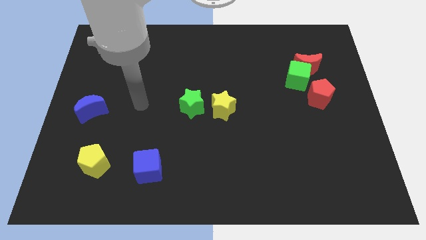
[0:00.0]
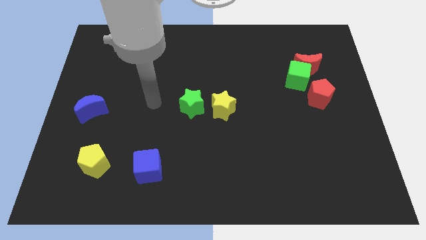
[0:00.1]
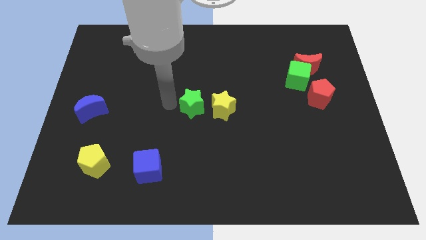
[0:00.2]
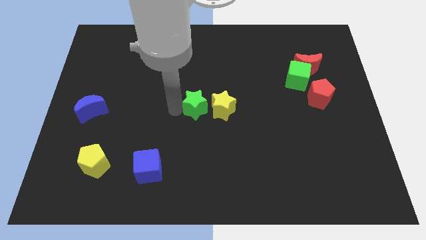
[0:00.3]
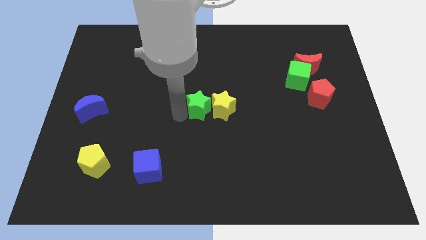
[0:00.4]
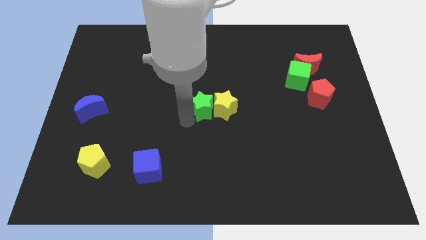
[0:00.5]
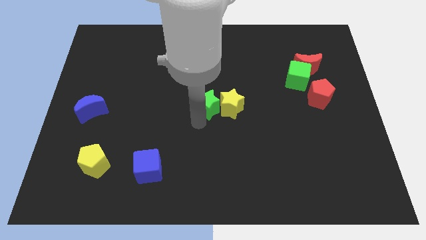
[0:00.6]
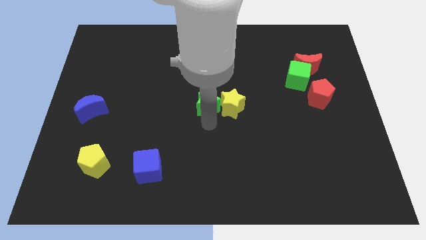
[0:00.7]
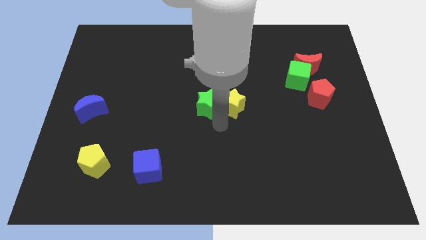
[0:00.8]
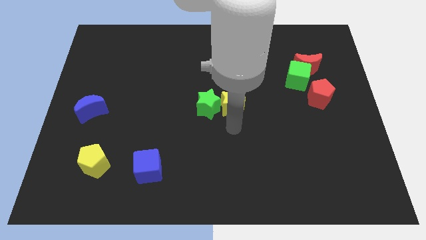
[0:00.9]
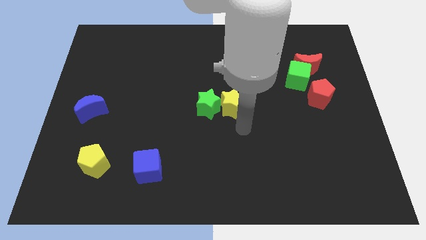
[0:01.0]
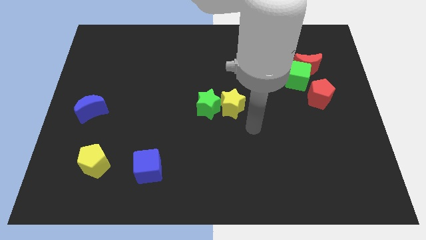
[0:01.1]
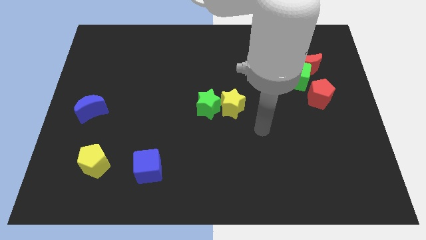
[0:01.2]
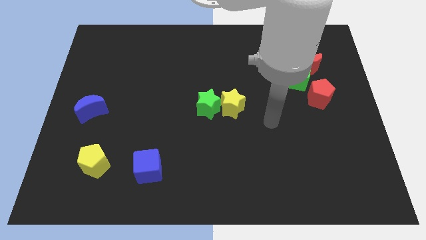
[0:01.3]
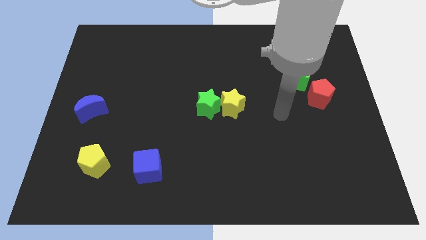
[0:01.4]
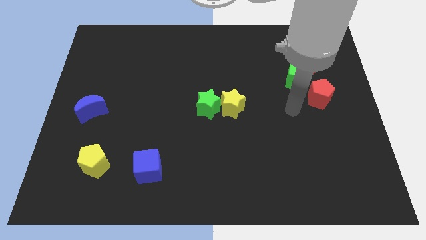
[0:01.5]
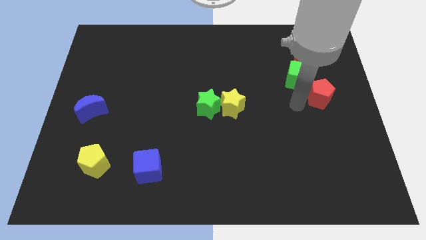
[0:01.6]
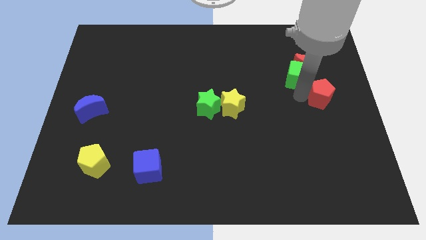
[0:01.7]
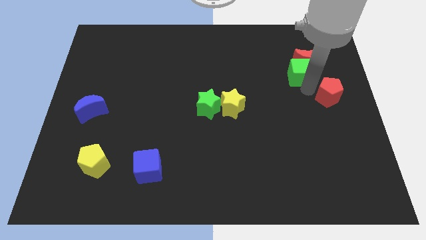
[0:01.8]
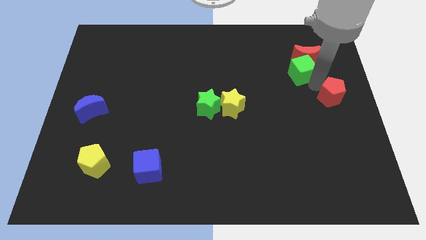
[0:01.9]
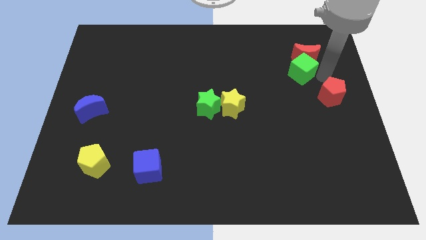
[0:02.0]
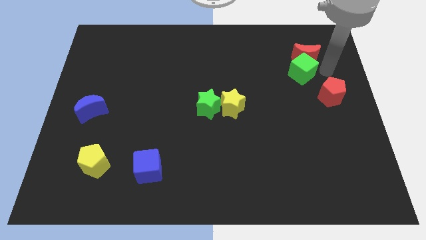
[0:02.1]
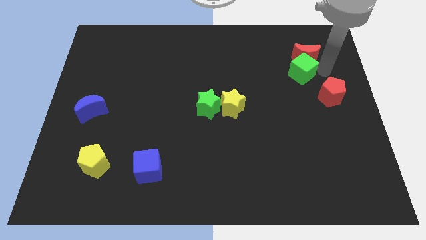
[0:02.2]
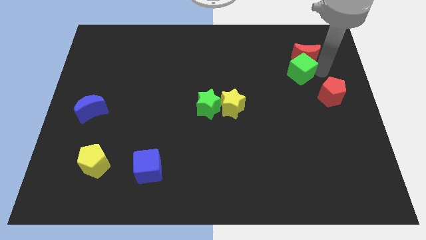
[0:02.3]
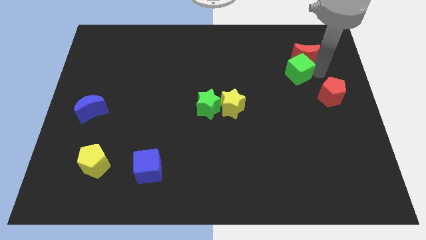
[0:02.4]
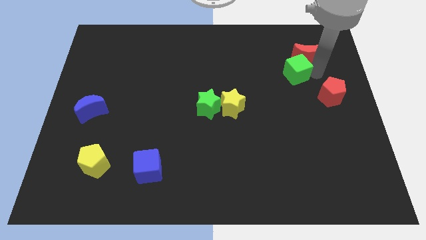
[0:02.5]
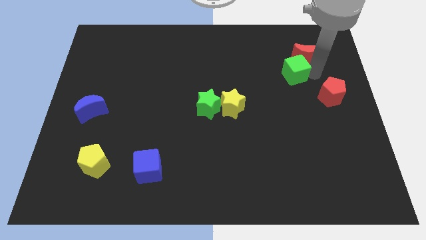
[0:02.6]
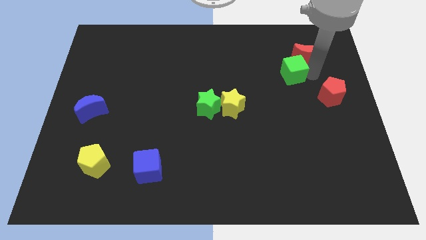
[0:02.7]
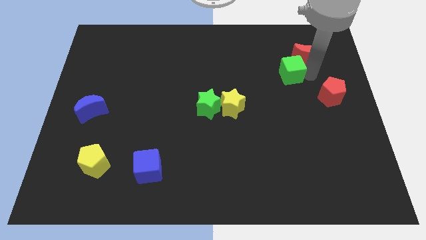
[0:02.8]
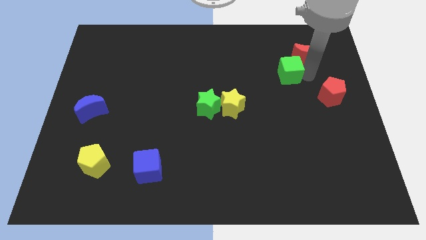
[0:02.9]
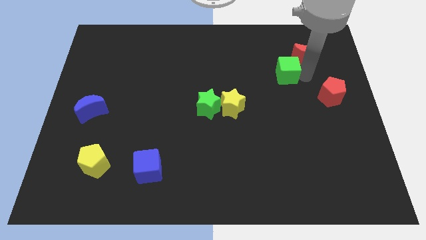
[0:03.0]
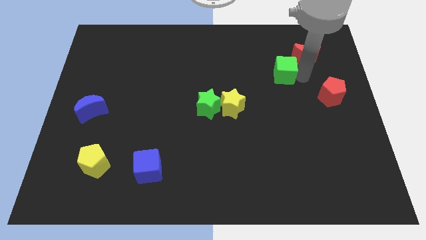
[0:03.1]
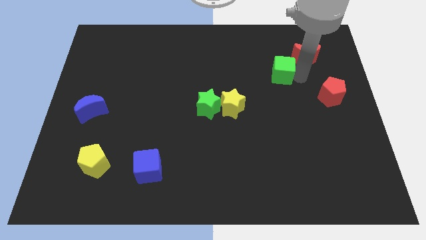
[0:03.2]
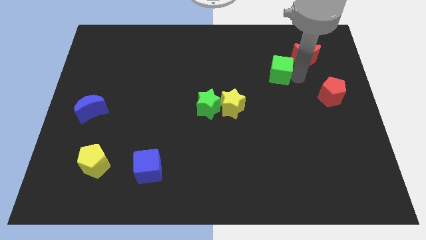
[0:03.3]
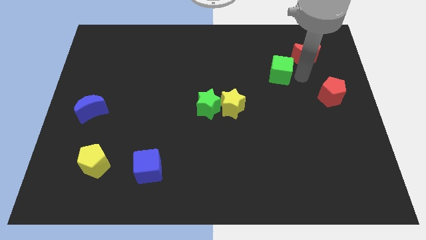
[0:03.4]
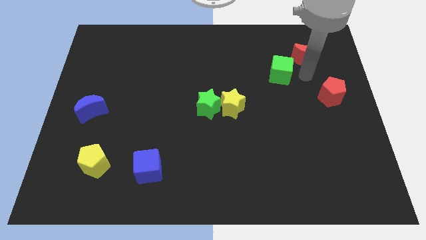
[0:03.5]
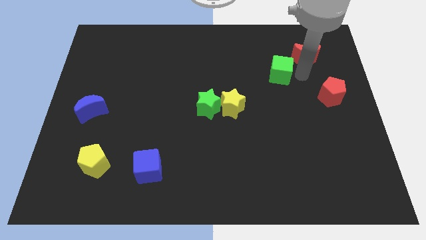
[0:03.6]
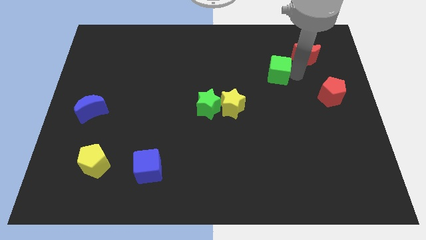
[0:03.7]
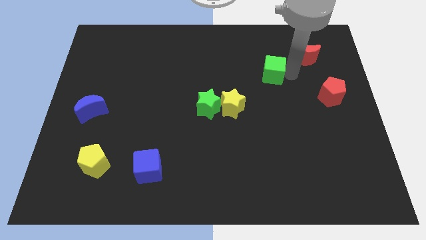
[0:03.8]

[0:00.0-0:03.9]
pull the green cube apart from the red moon and red pentagon

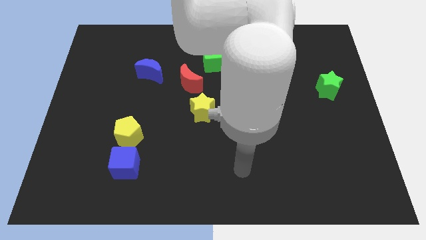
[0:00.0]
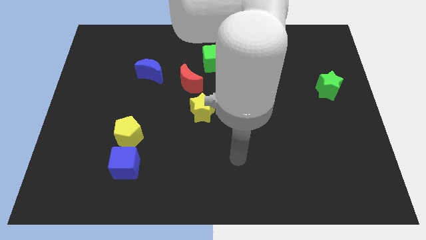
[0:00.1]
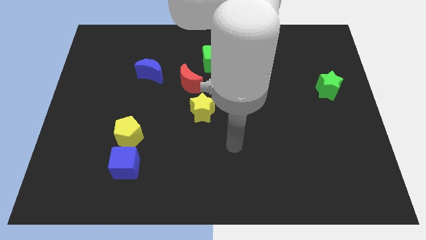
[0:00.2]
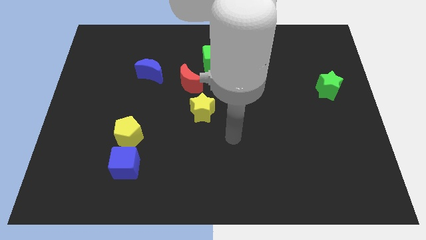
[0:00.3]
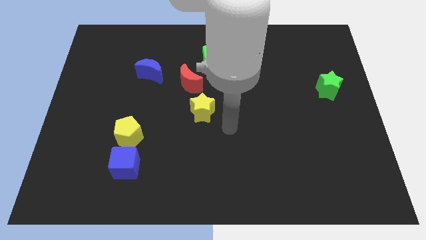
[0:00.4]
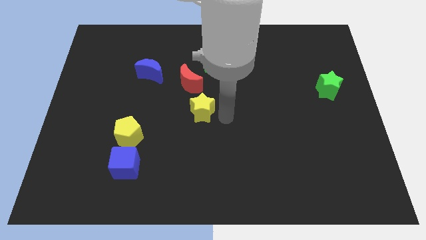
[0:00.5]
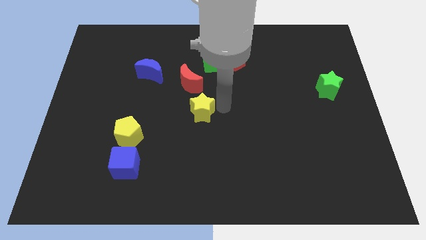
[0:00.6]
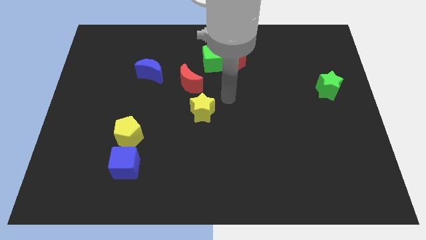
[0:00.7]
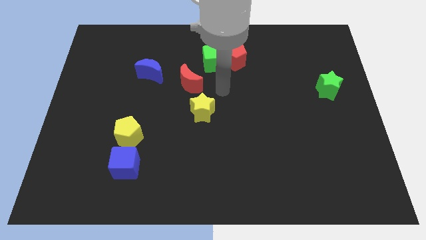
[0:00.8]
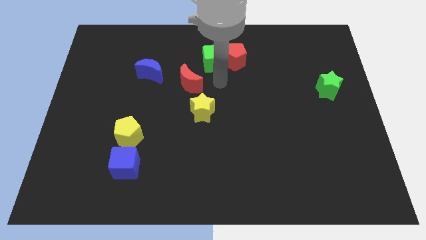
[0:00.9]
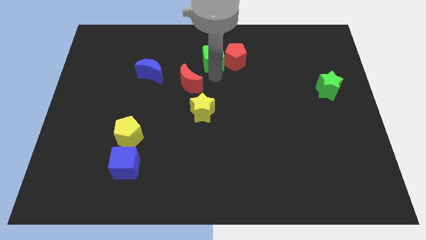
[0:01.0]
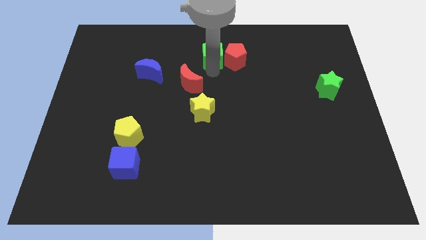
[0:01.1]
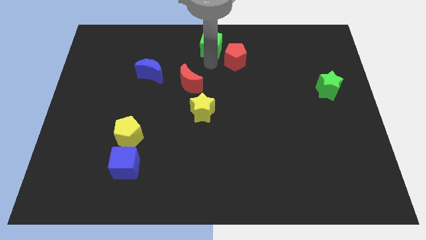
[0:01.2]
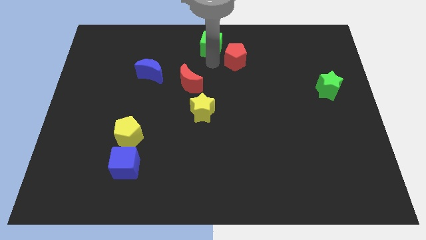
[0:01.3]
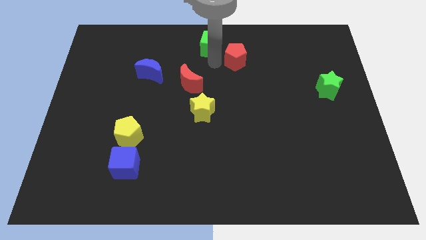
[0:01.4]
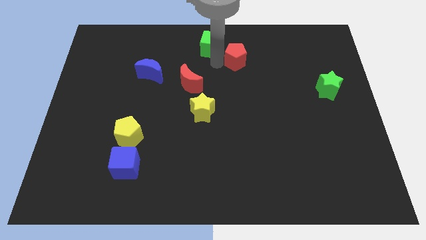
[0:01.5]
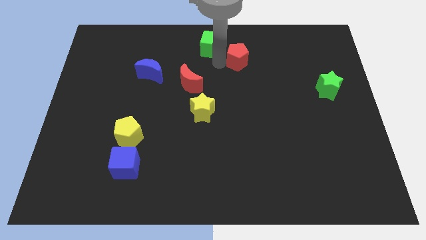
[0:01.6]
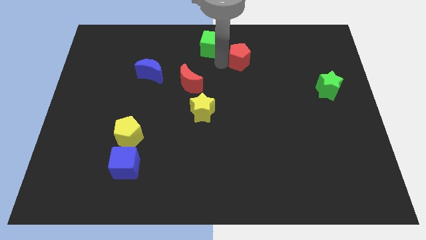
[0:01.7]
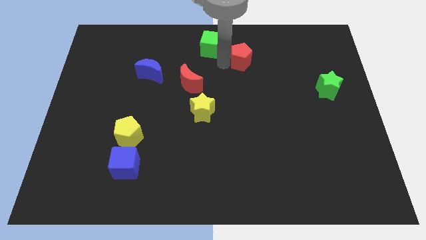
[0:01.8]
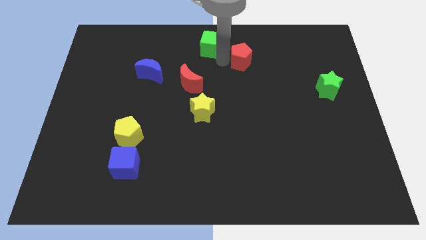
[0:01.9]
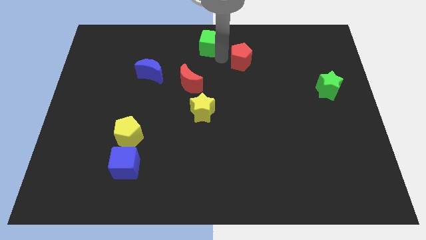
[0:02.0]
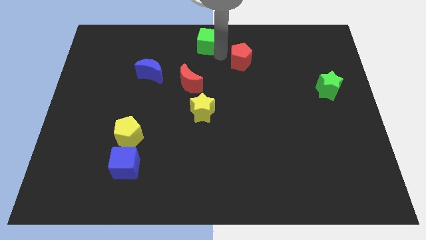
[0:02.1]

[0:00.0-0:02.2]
pull the red pentagon apart from the green cube

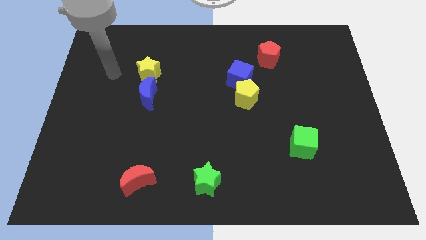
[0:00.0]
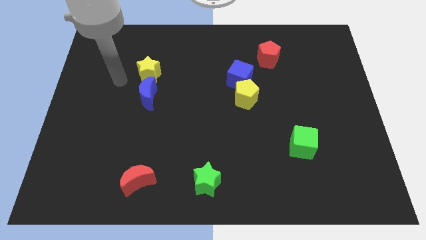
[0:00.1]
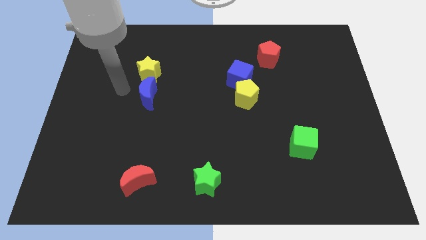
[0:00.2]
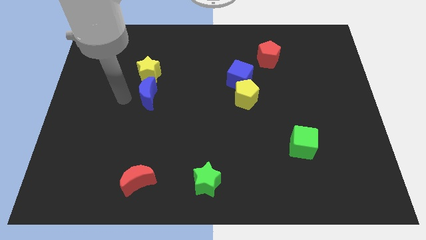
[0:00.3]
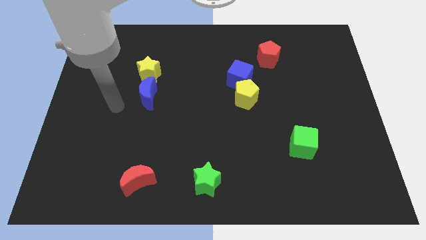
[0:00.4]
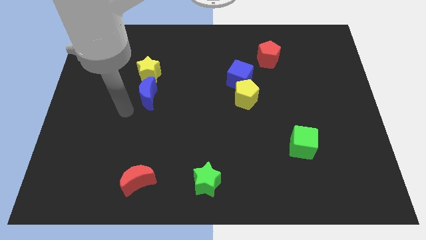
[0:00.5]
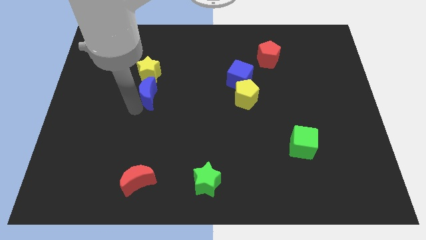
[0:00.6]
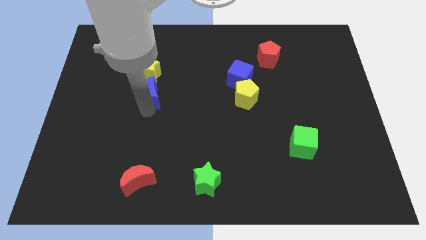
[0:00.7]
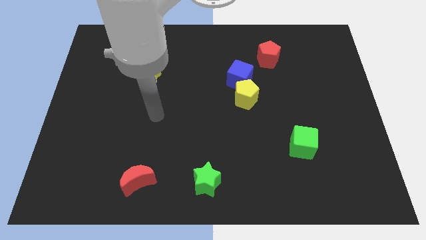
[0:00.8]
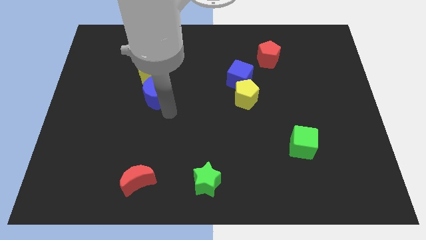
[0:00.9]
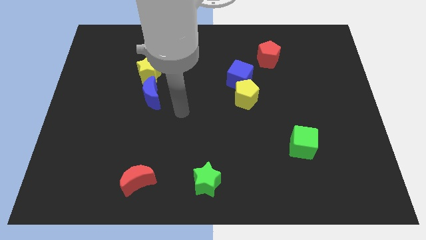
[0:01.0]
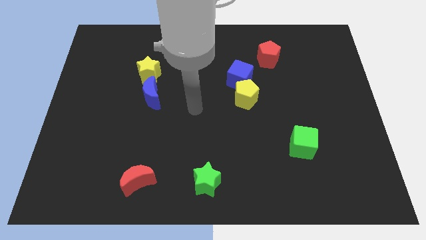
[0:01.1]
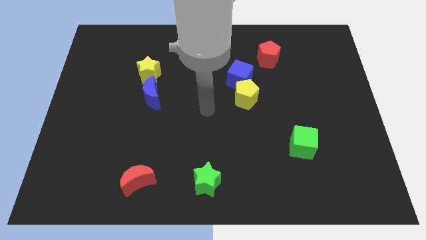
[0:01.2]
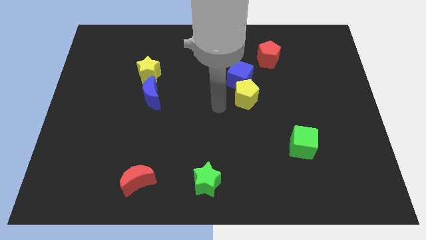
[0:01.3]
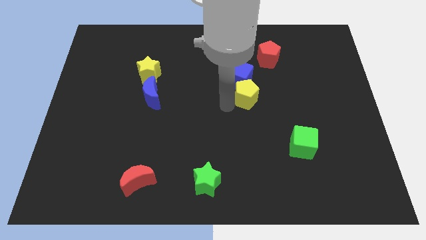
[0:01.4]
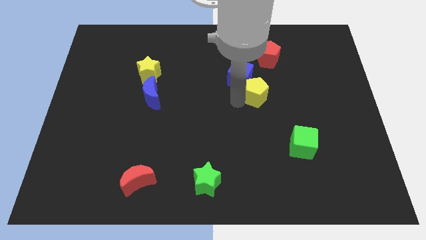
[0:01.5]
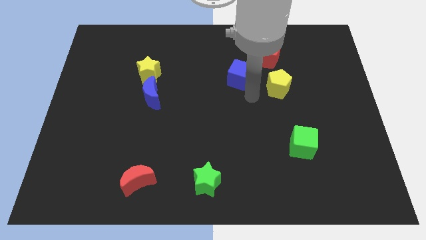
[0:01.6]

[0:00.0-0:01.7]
move the blue cube away from the yellow pentagon

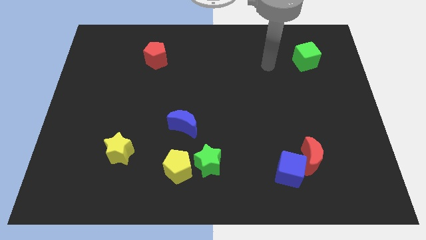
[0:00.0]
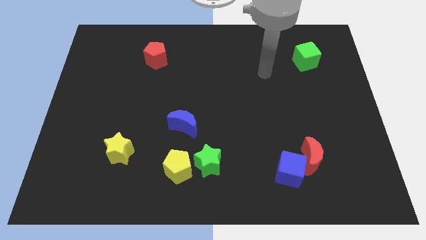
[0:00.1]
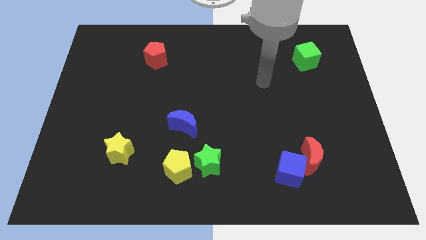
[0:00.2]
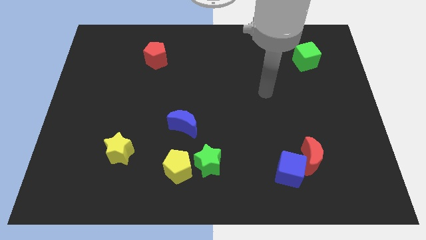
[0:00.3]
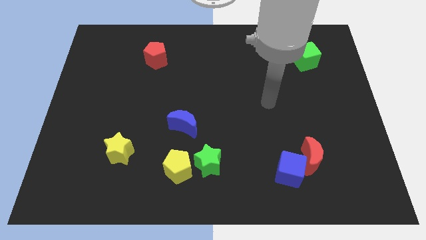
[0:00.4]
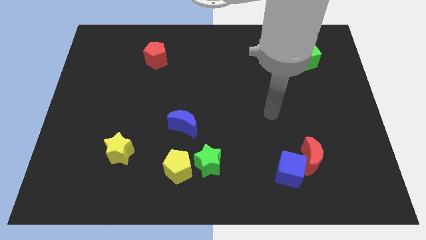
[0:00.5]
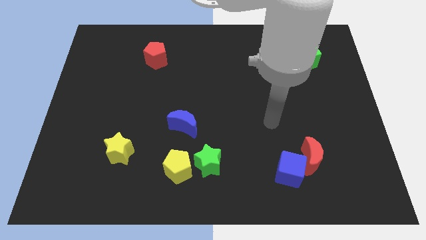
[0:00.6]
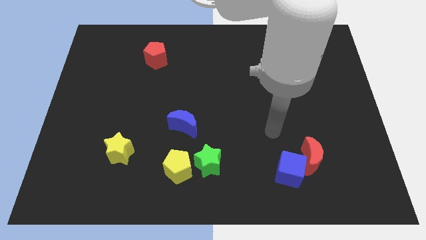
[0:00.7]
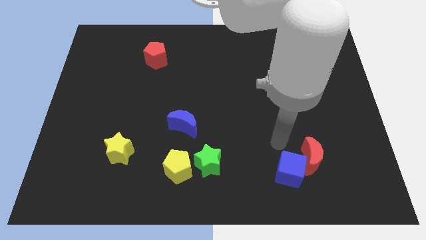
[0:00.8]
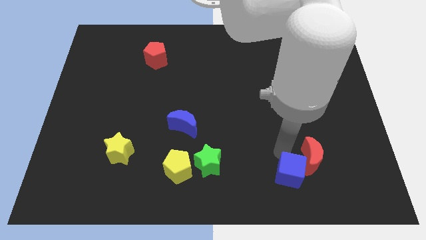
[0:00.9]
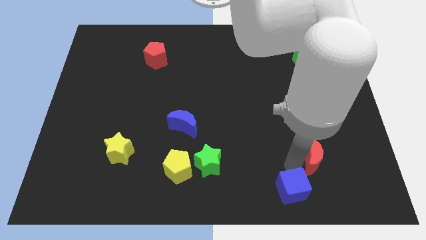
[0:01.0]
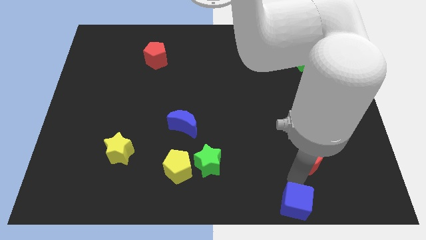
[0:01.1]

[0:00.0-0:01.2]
separate the red moon from the blue cube

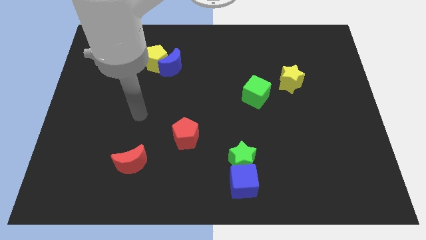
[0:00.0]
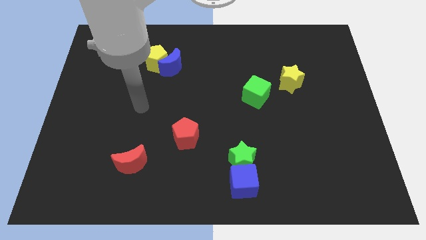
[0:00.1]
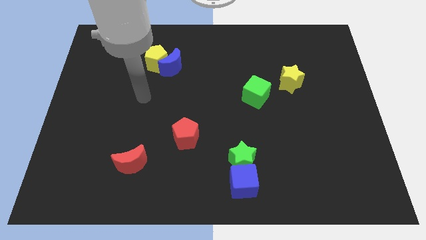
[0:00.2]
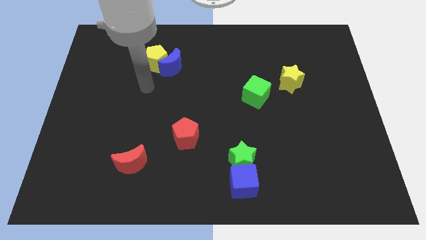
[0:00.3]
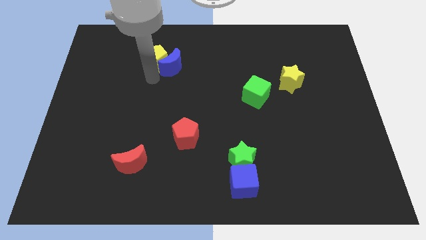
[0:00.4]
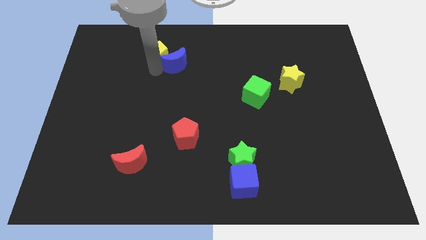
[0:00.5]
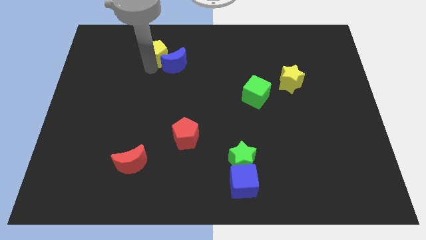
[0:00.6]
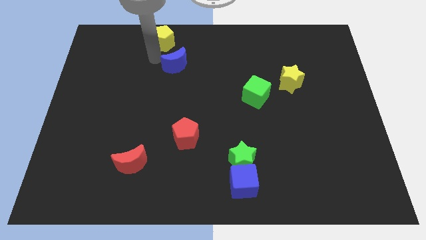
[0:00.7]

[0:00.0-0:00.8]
pull the blue moon apart from the yellow pentagon
